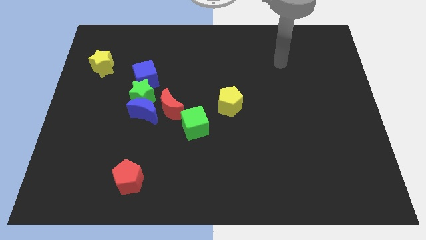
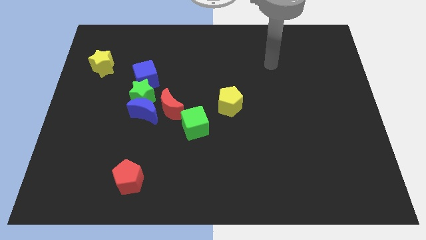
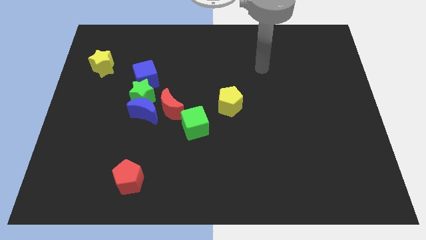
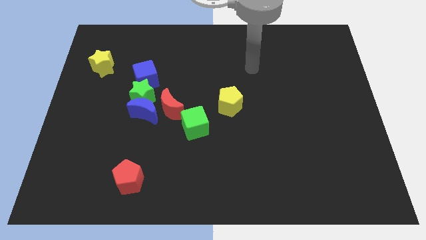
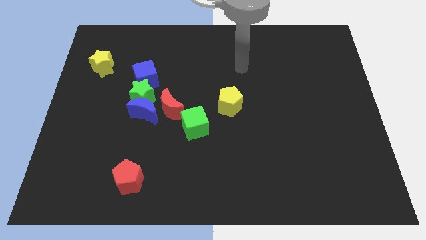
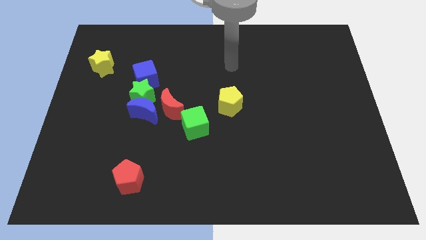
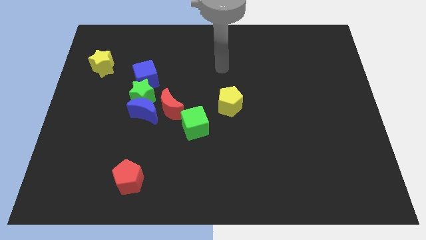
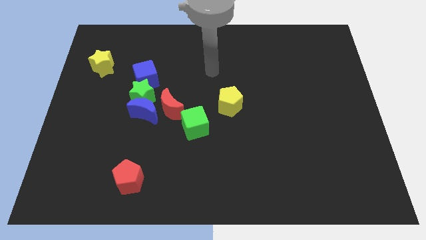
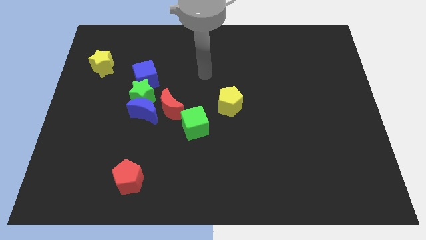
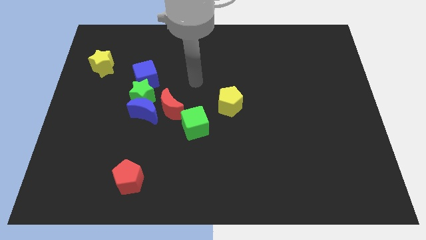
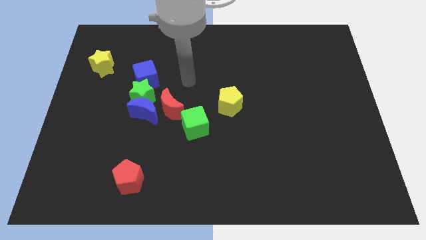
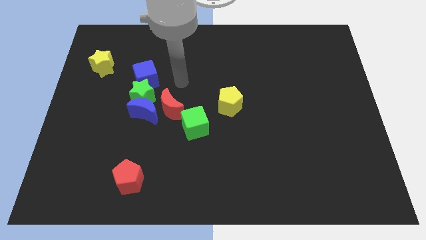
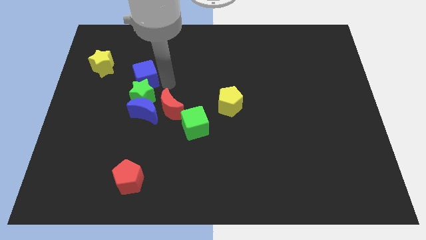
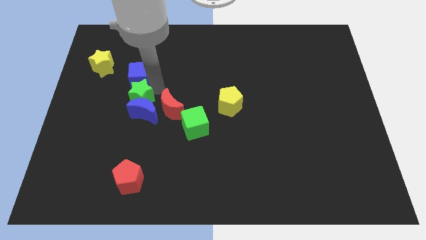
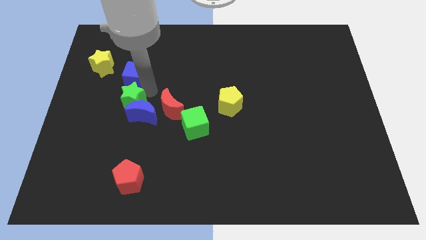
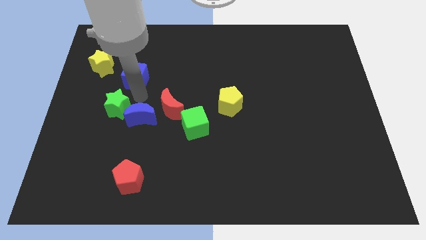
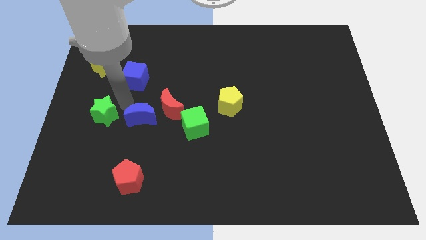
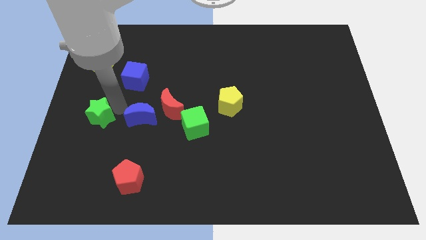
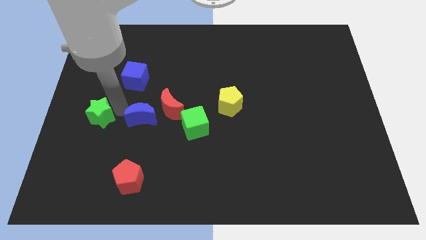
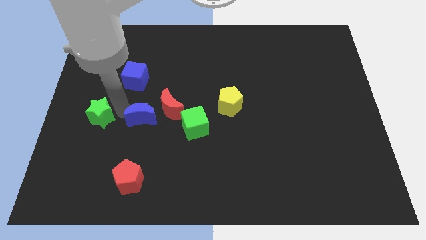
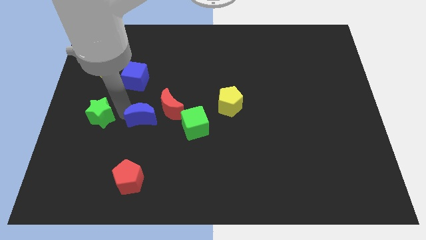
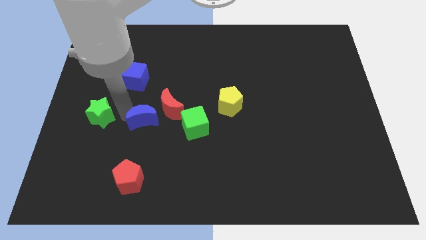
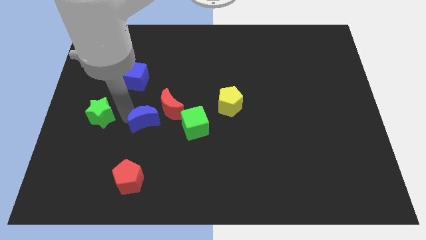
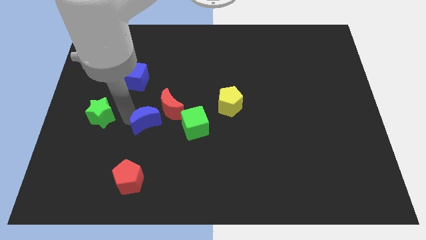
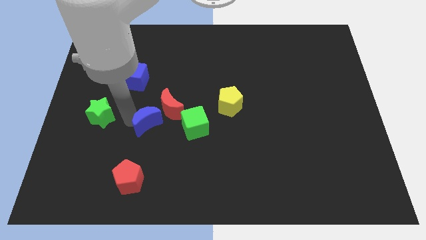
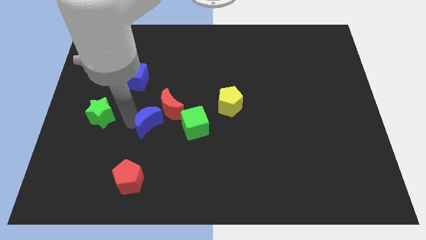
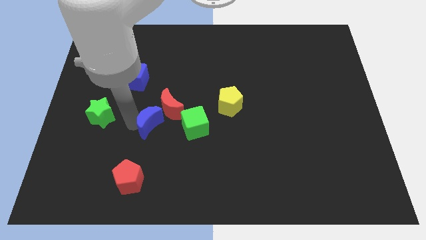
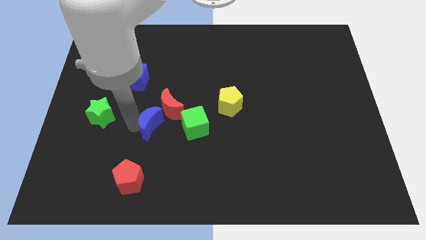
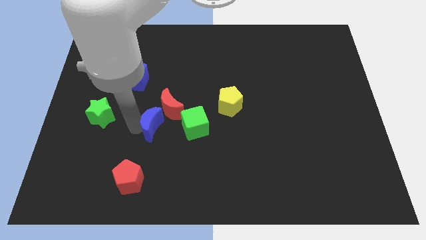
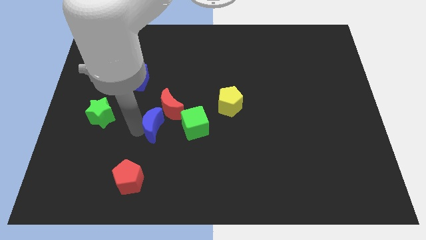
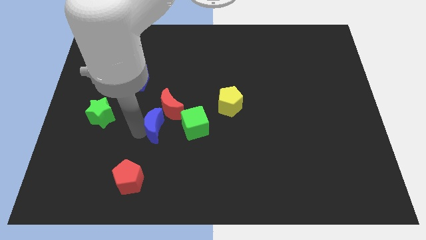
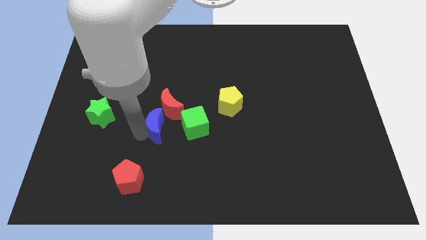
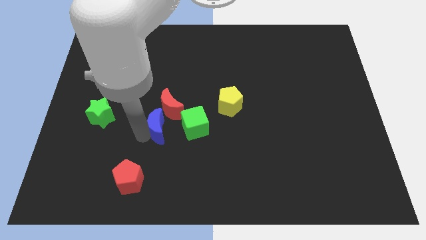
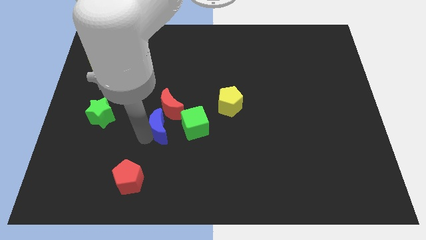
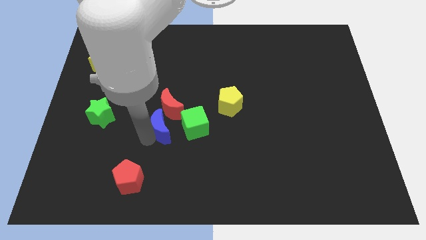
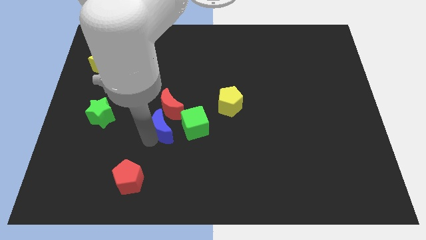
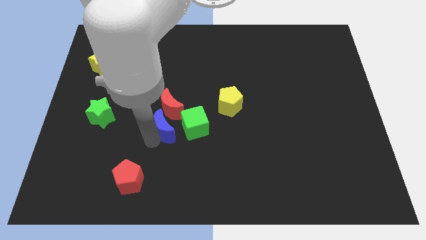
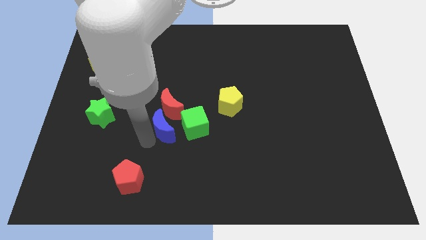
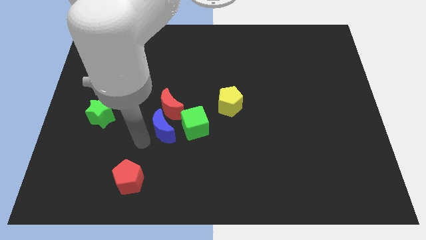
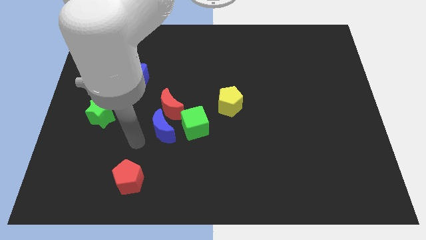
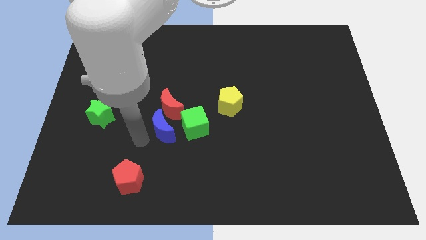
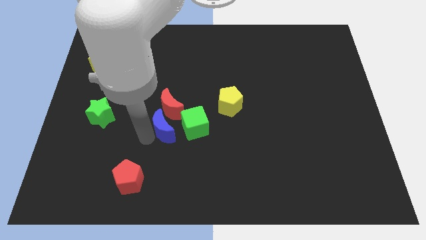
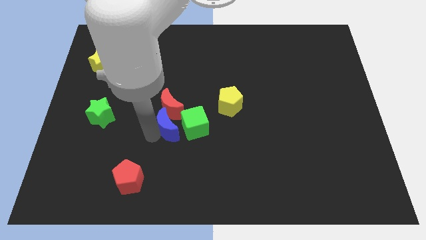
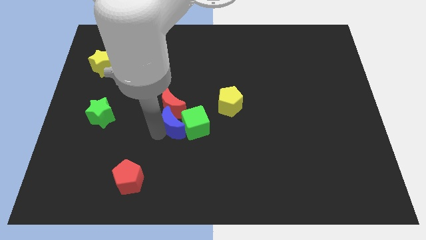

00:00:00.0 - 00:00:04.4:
move the blue moon close to the green cube

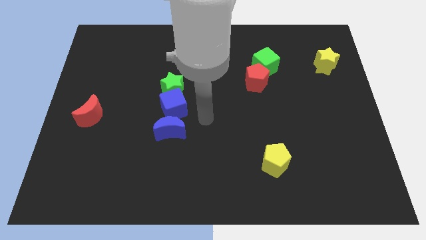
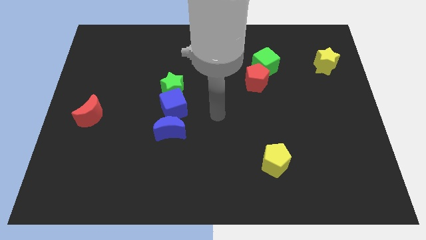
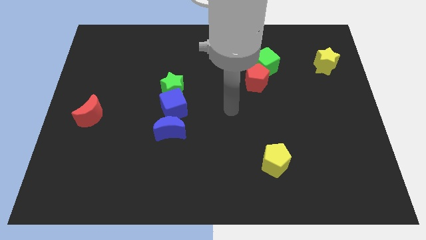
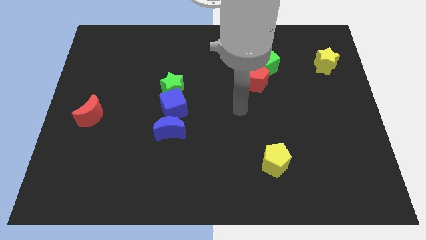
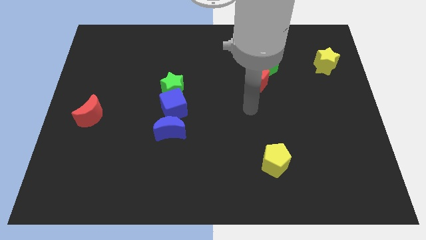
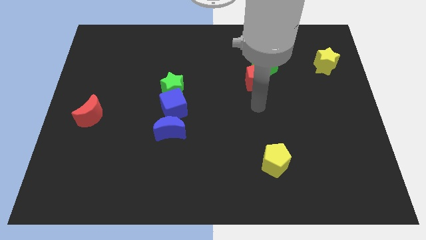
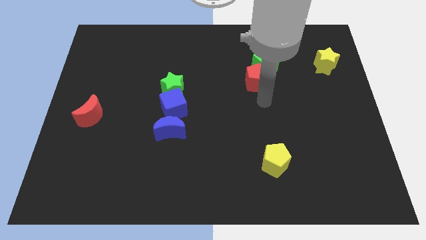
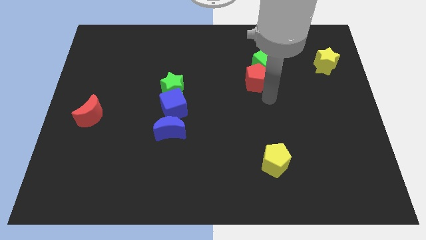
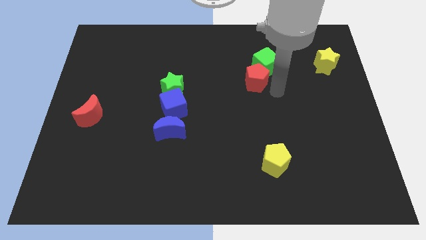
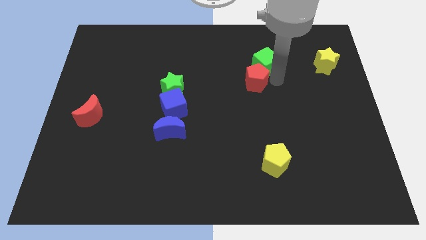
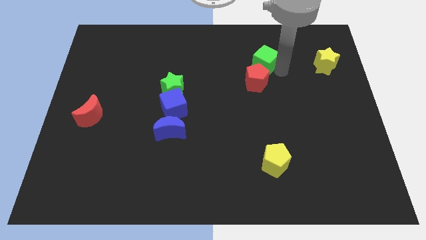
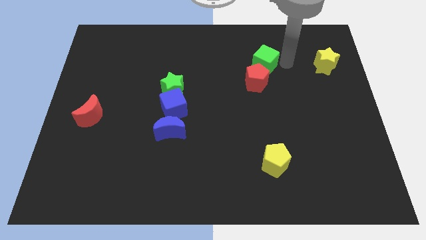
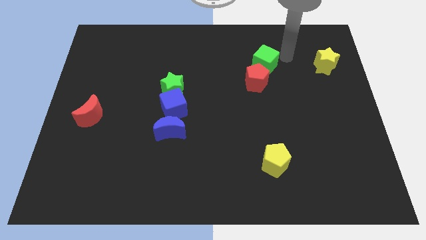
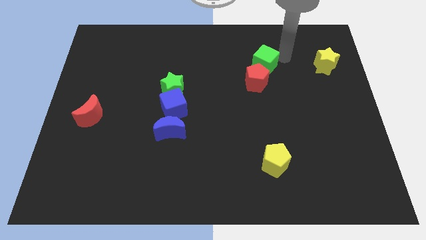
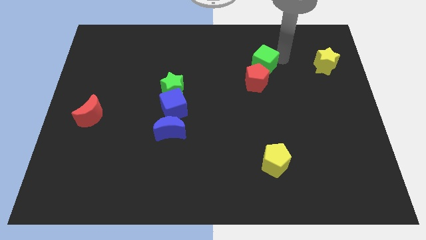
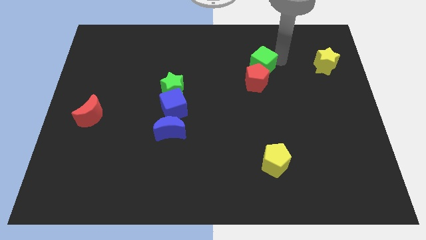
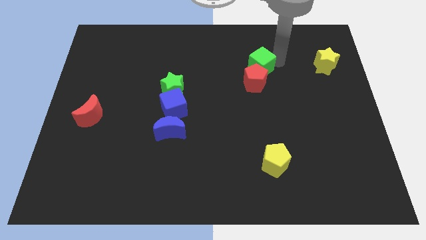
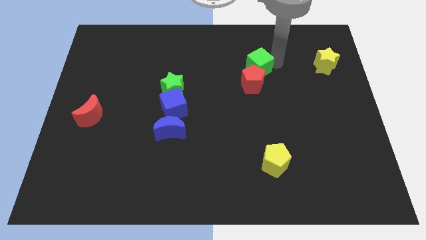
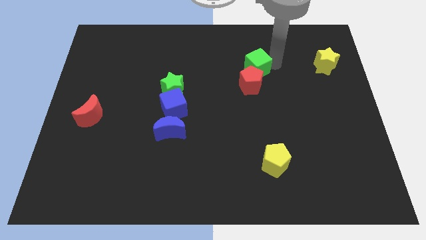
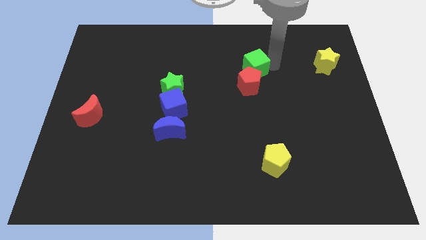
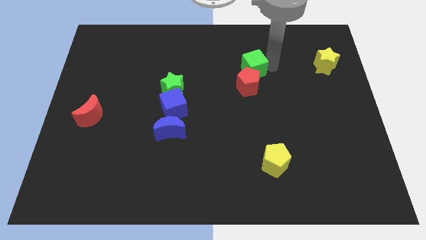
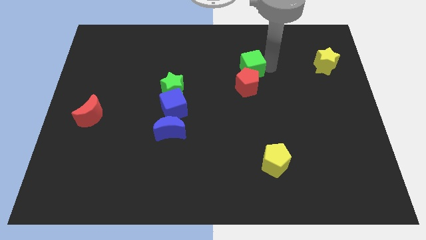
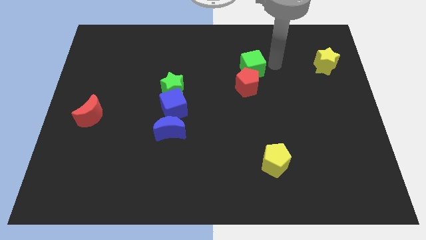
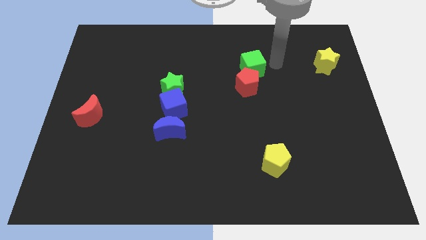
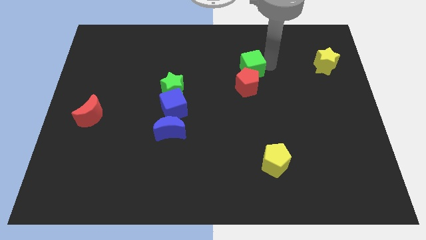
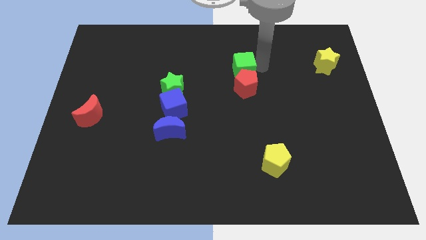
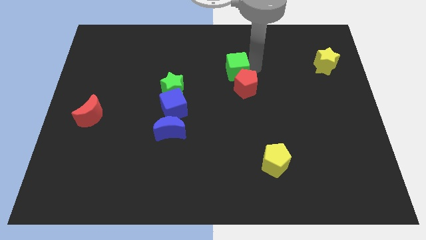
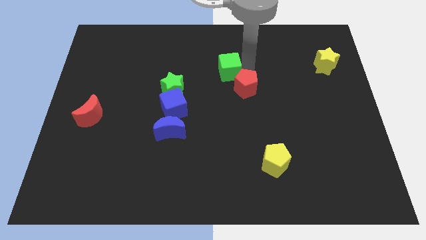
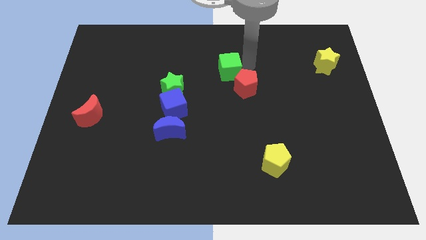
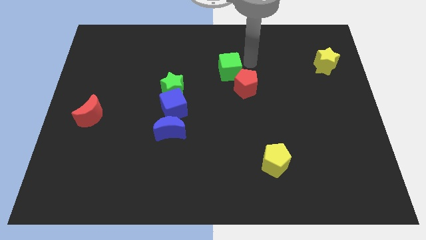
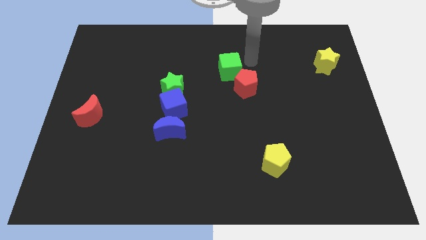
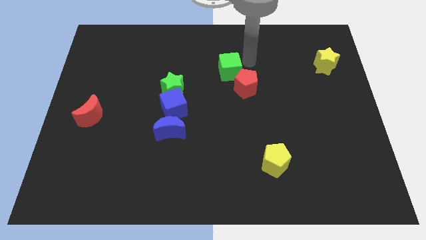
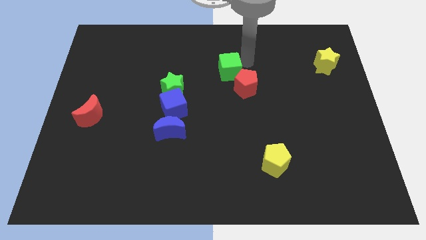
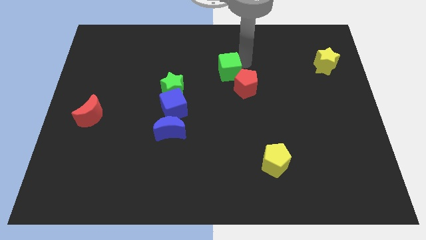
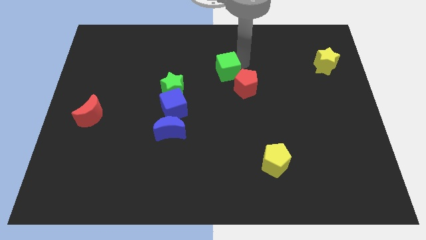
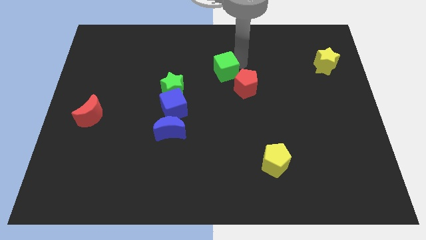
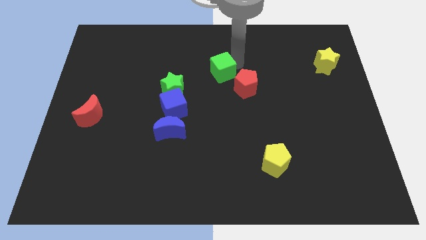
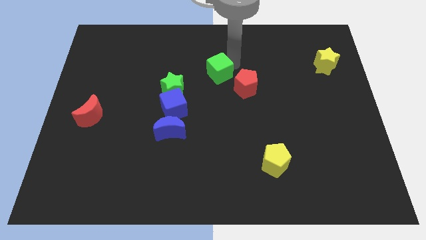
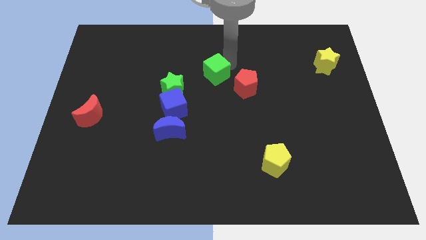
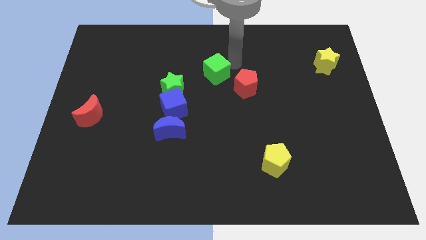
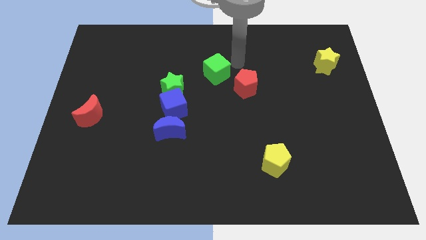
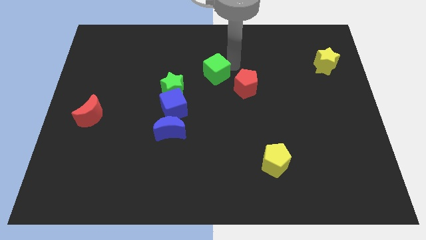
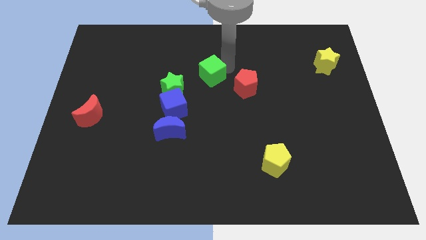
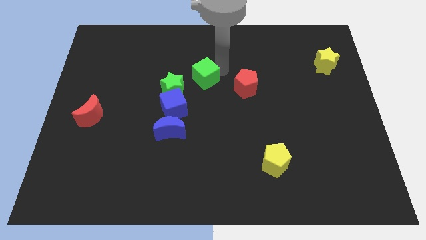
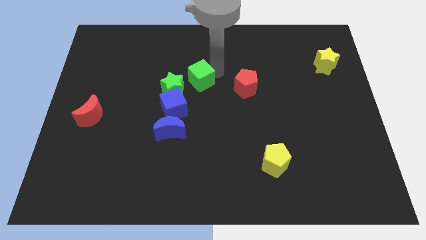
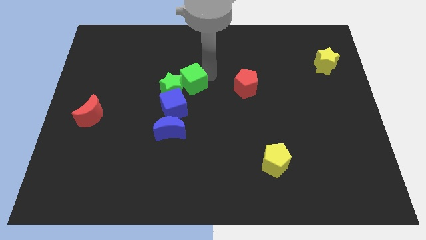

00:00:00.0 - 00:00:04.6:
move the green cube next to the green star
